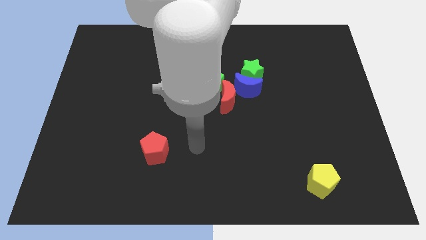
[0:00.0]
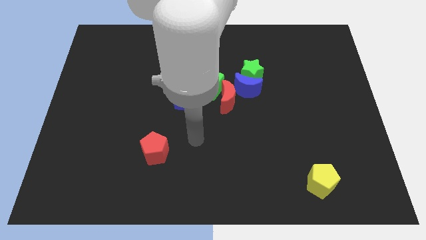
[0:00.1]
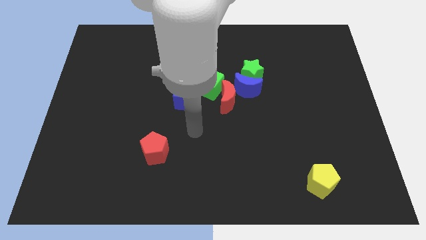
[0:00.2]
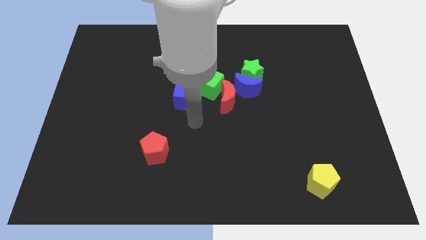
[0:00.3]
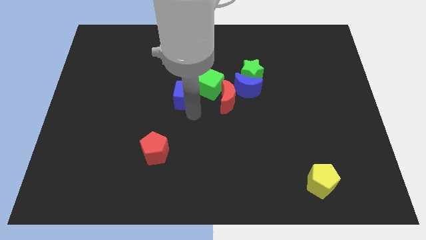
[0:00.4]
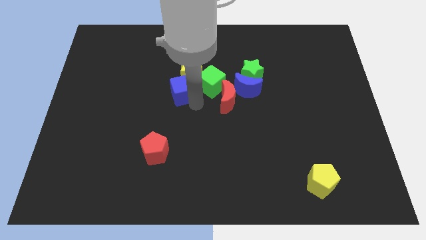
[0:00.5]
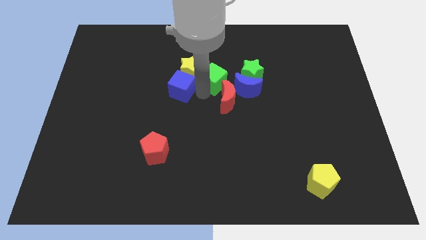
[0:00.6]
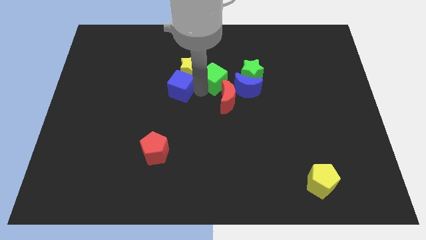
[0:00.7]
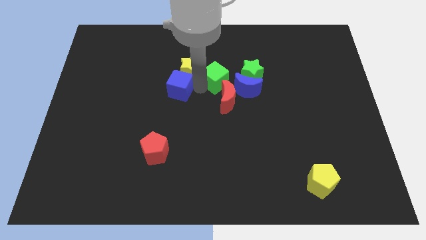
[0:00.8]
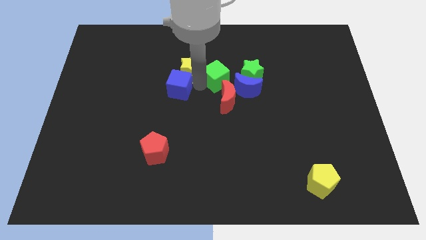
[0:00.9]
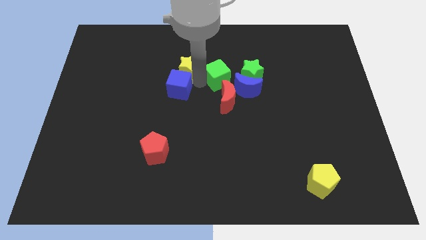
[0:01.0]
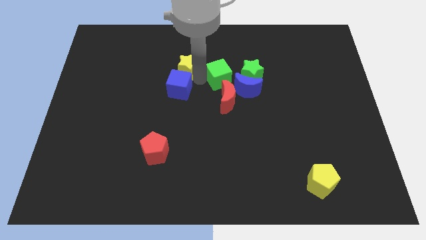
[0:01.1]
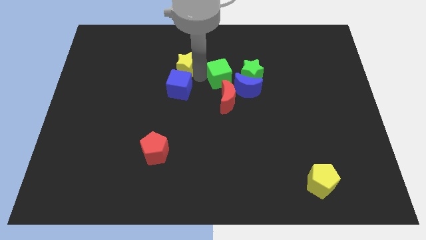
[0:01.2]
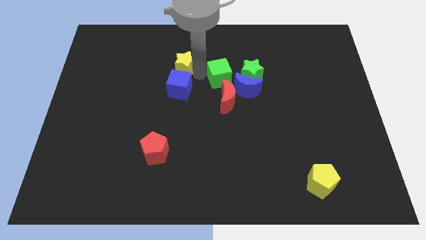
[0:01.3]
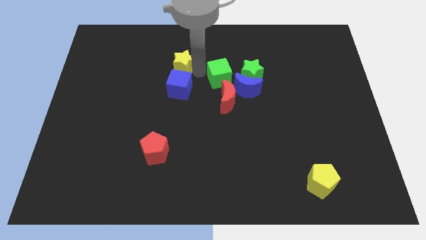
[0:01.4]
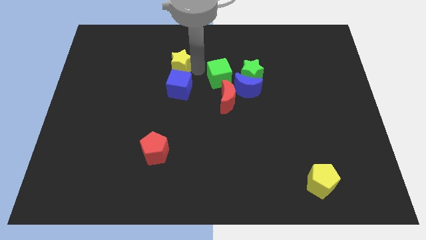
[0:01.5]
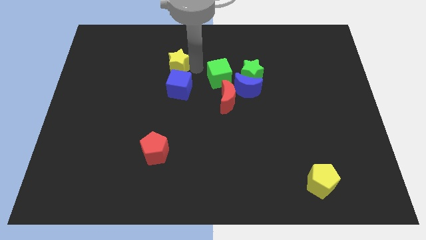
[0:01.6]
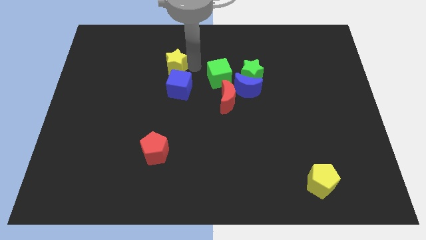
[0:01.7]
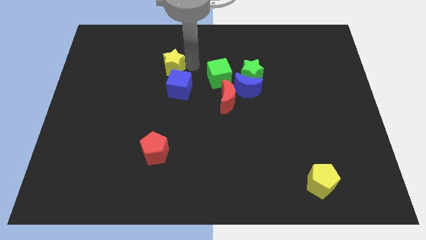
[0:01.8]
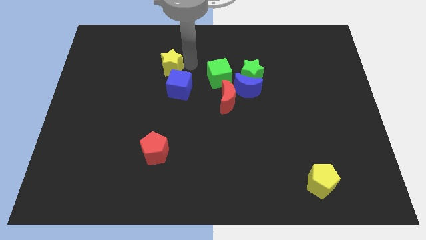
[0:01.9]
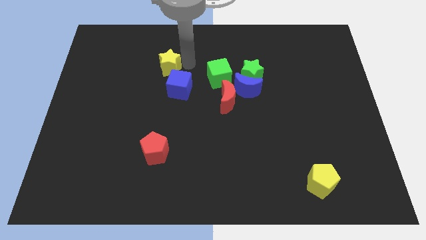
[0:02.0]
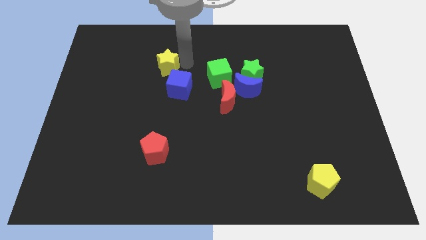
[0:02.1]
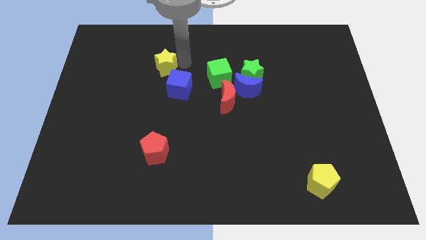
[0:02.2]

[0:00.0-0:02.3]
move the yellow star away from the green cube and blue cube

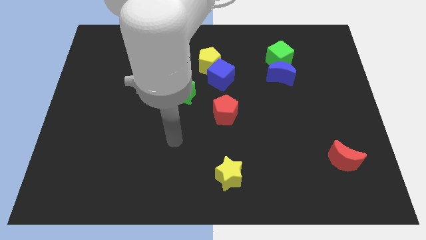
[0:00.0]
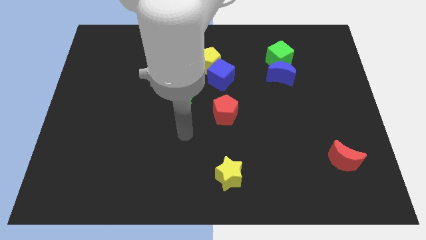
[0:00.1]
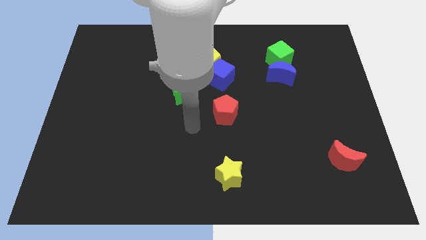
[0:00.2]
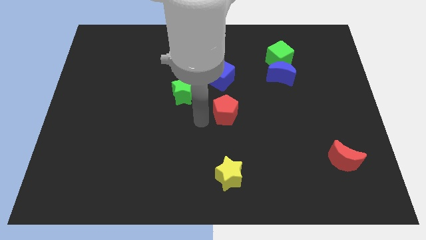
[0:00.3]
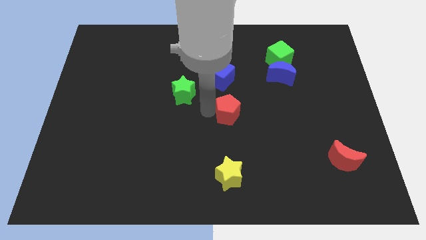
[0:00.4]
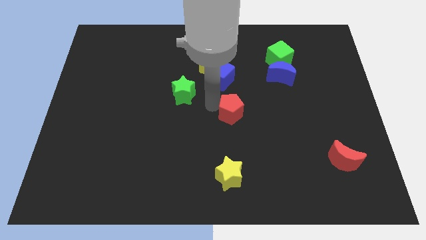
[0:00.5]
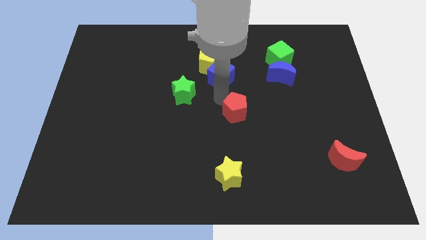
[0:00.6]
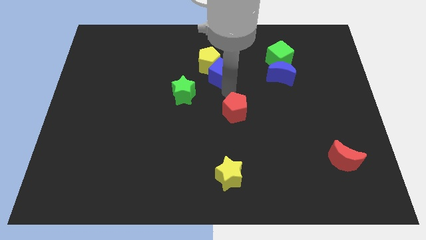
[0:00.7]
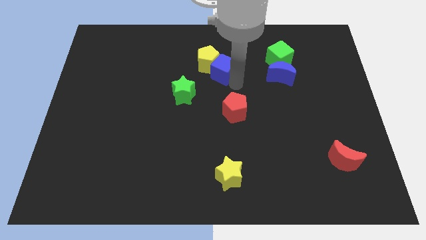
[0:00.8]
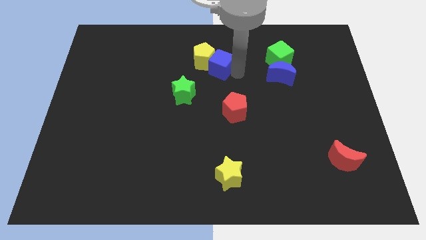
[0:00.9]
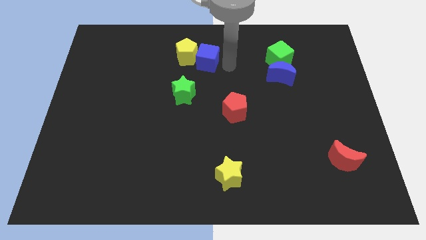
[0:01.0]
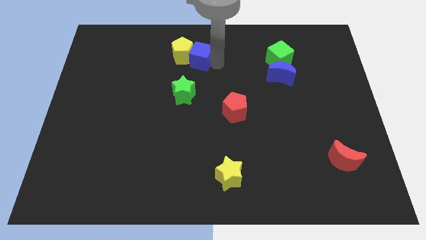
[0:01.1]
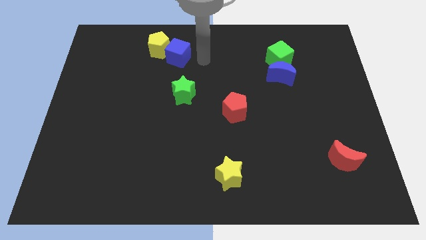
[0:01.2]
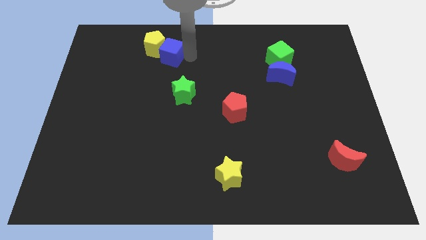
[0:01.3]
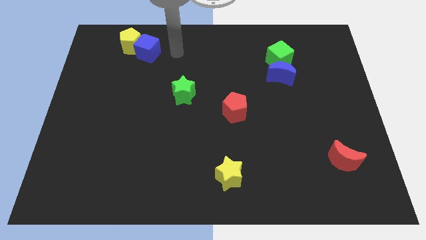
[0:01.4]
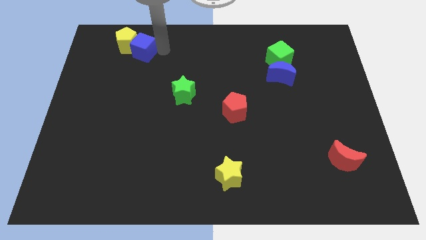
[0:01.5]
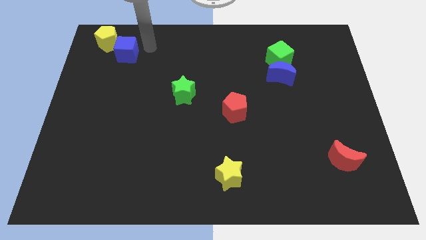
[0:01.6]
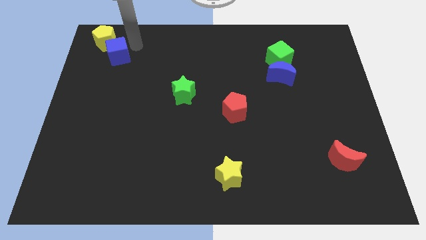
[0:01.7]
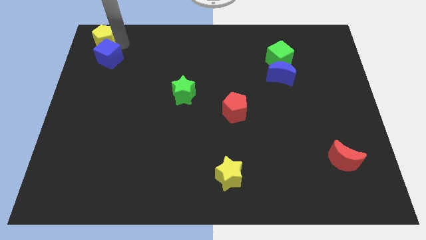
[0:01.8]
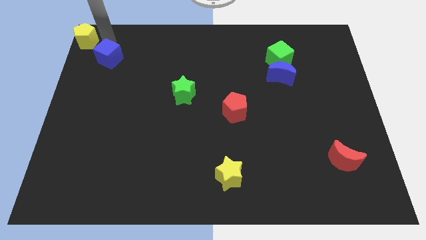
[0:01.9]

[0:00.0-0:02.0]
move the blue cube away from the yellow pentagon

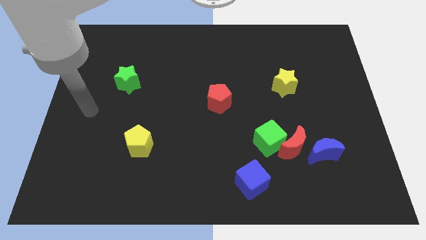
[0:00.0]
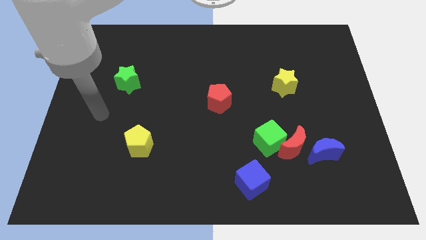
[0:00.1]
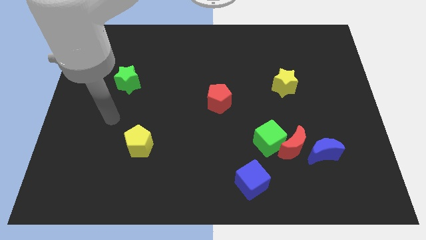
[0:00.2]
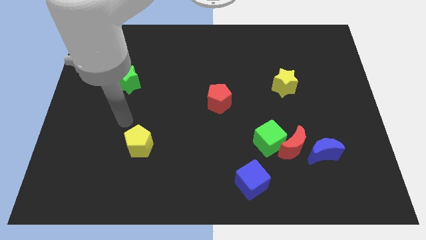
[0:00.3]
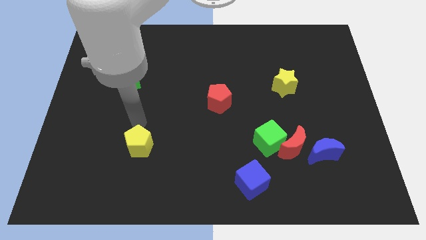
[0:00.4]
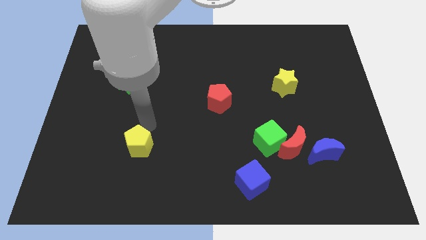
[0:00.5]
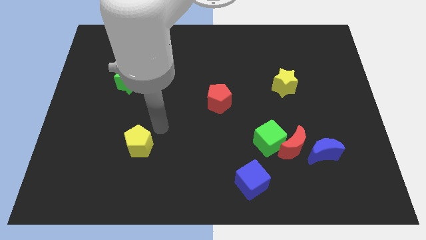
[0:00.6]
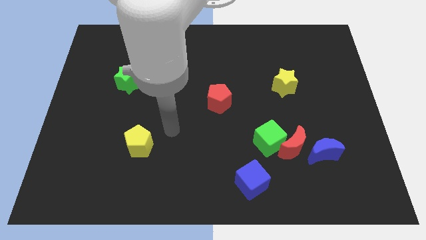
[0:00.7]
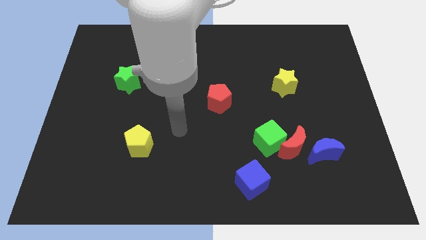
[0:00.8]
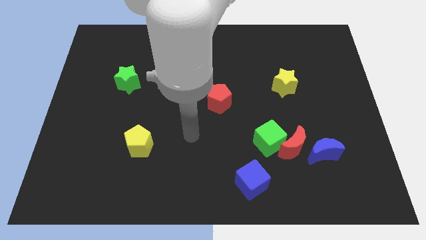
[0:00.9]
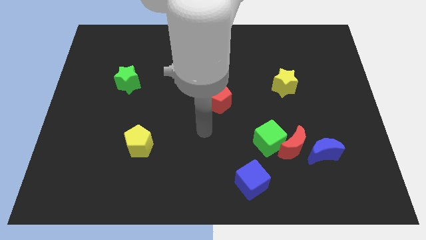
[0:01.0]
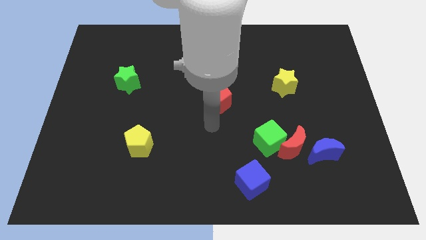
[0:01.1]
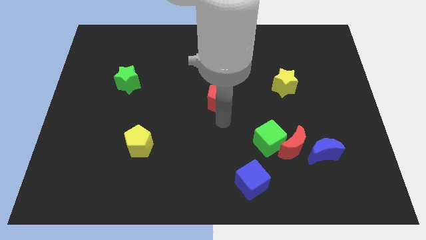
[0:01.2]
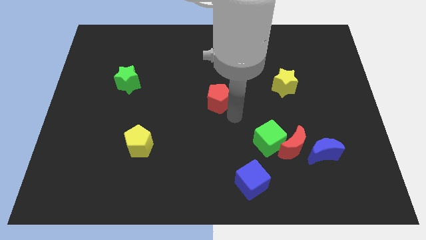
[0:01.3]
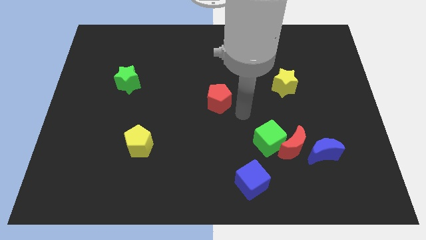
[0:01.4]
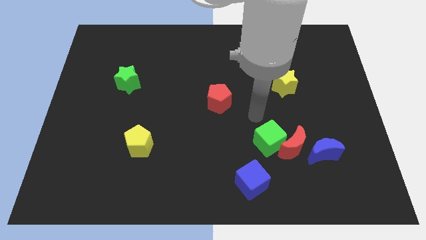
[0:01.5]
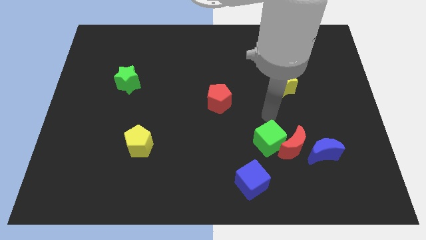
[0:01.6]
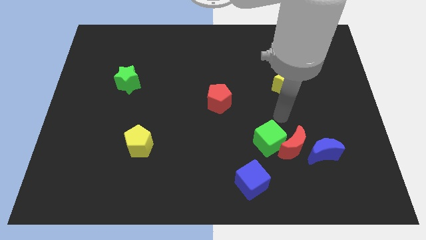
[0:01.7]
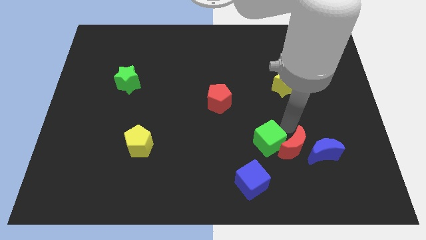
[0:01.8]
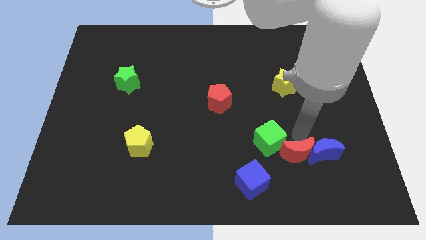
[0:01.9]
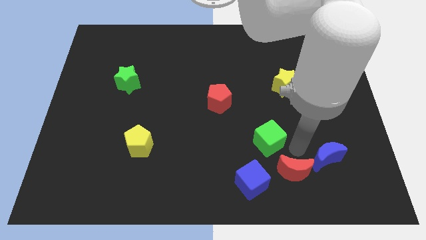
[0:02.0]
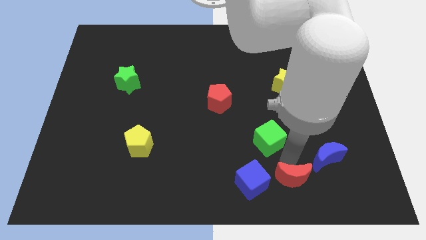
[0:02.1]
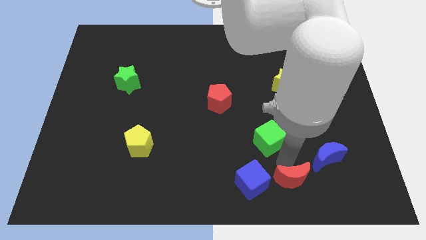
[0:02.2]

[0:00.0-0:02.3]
pull the green cube apart from the red moon

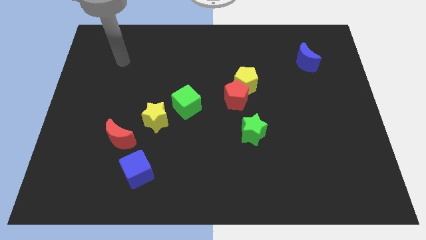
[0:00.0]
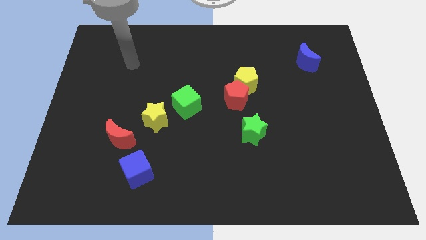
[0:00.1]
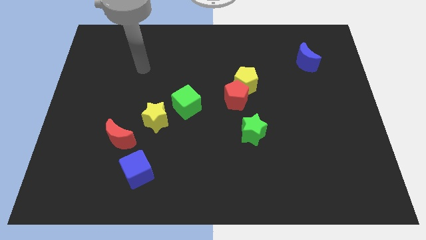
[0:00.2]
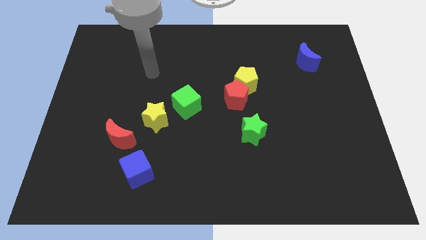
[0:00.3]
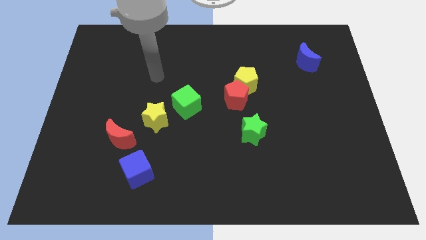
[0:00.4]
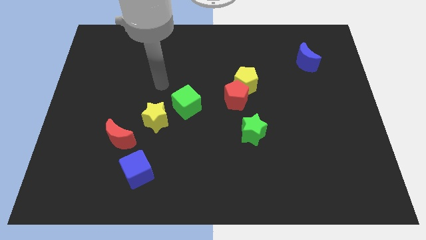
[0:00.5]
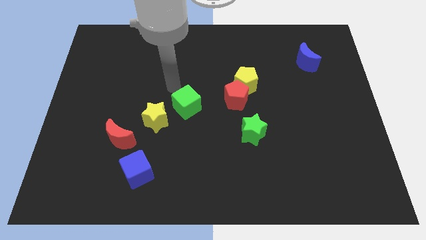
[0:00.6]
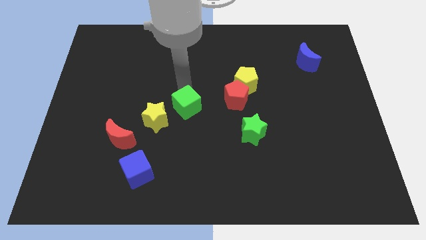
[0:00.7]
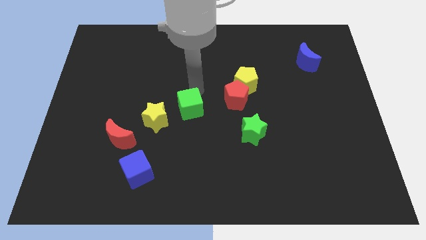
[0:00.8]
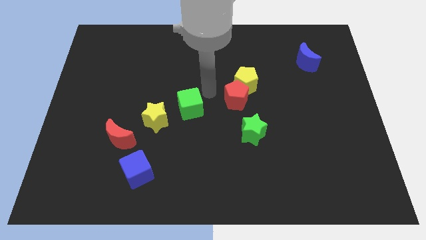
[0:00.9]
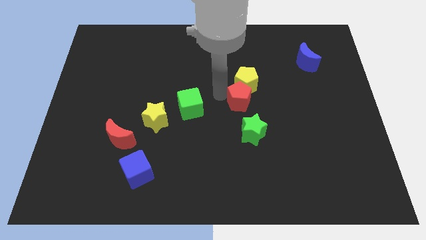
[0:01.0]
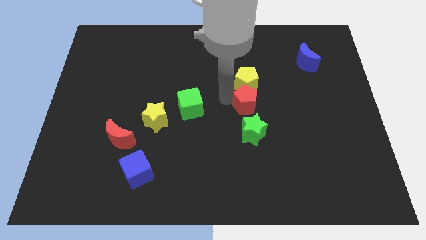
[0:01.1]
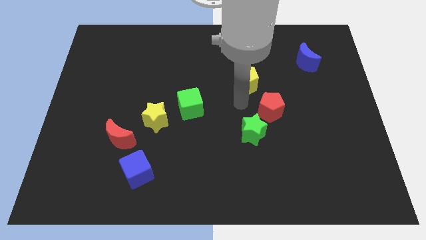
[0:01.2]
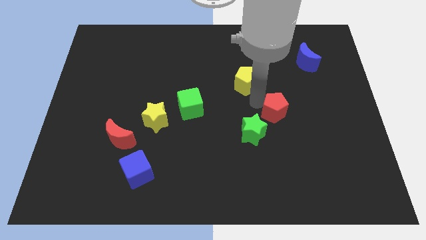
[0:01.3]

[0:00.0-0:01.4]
move the yellow pentagon away from the red pentagon

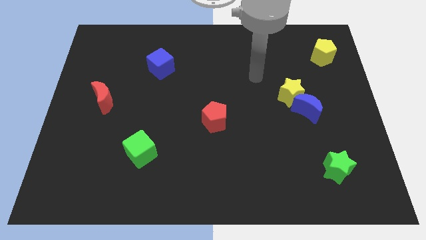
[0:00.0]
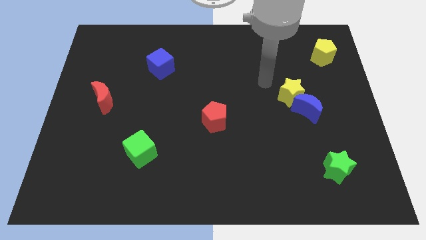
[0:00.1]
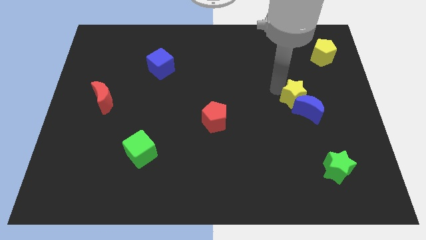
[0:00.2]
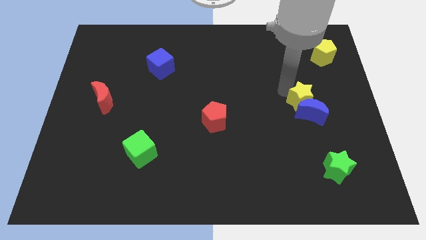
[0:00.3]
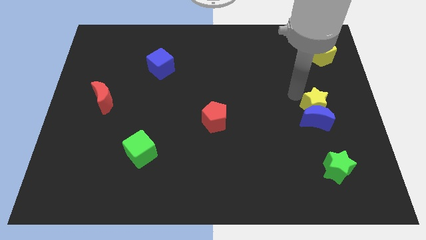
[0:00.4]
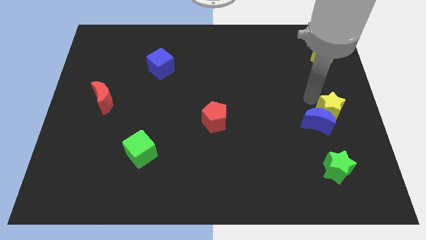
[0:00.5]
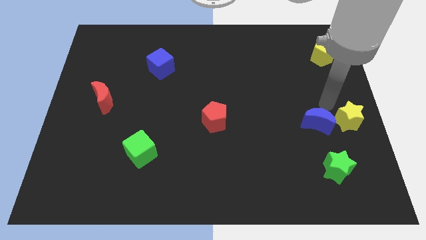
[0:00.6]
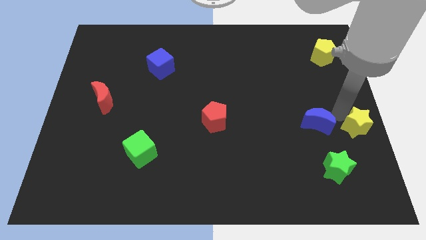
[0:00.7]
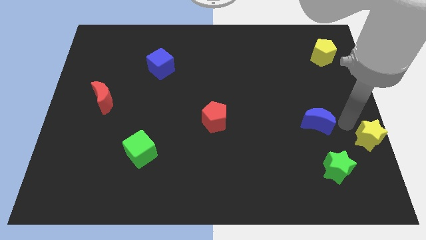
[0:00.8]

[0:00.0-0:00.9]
move the blue moon away from the yellow star

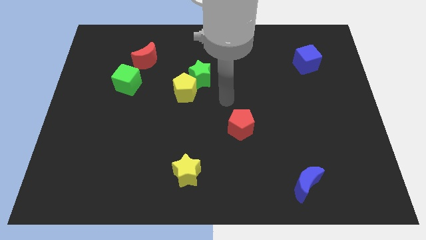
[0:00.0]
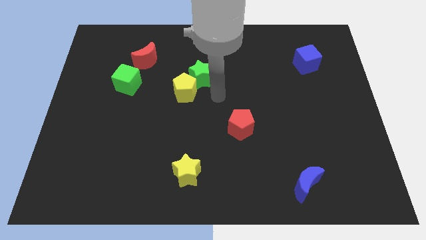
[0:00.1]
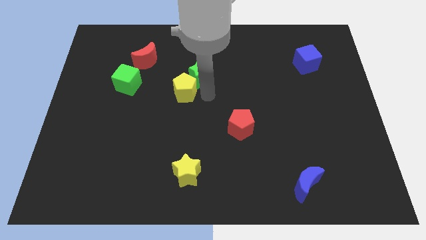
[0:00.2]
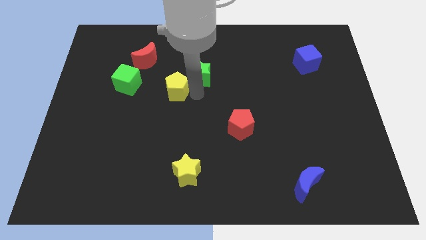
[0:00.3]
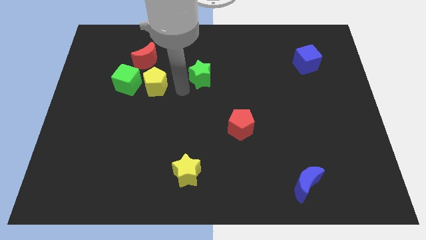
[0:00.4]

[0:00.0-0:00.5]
separate the green star from the yellow pentagon
